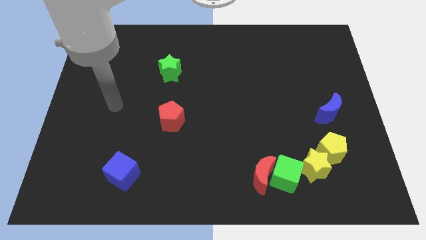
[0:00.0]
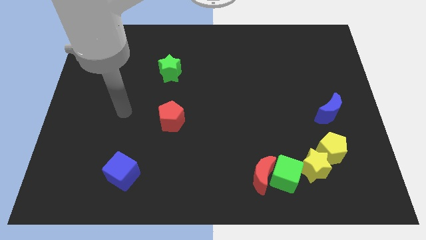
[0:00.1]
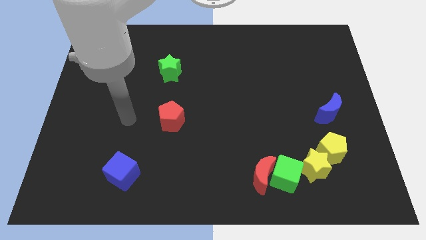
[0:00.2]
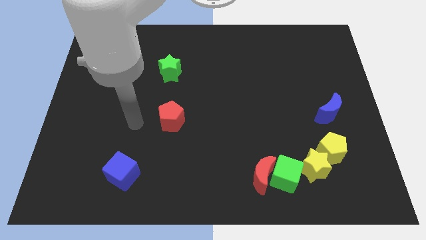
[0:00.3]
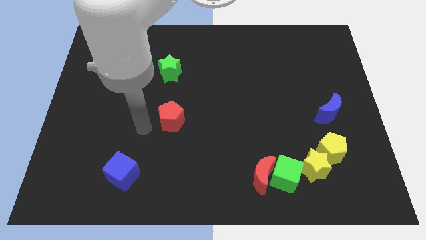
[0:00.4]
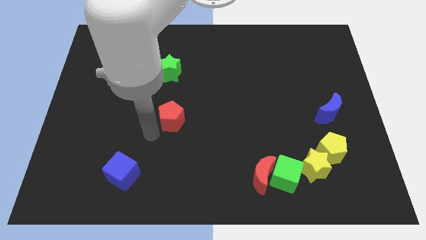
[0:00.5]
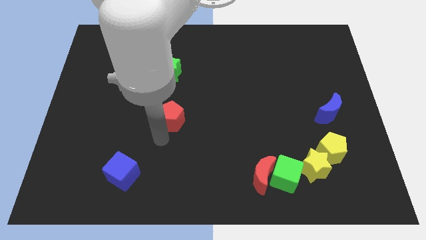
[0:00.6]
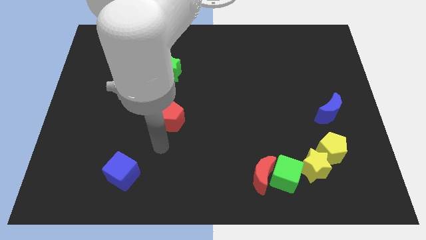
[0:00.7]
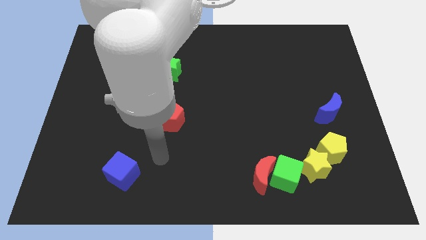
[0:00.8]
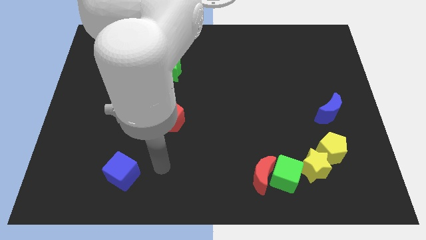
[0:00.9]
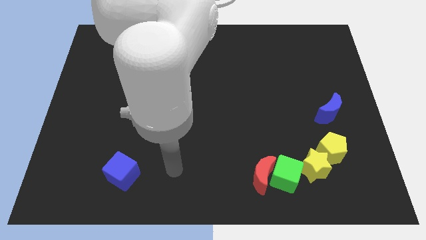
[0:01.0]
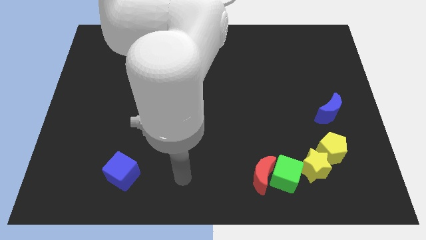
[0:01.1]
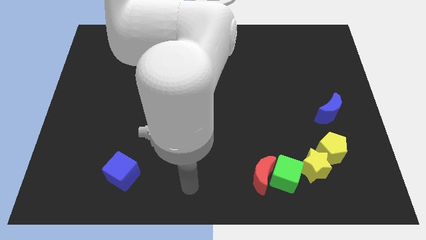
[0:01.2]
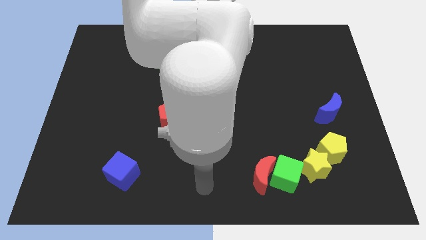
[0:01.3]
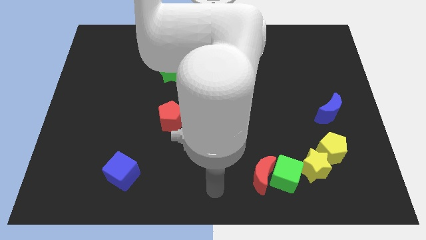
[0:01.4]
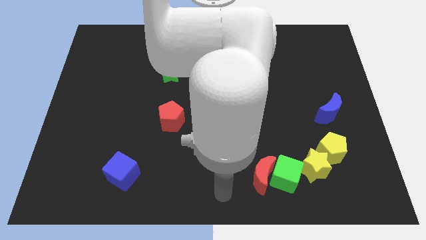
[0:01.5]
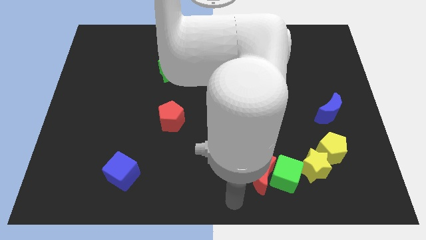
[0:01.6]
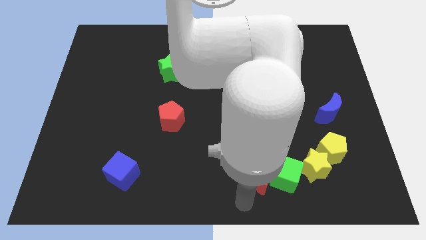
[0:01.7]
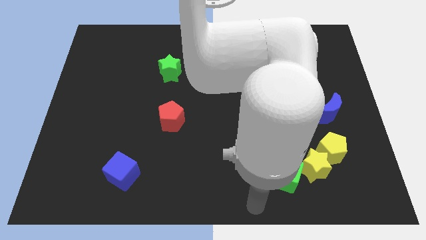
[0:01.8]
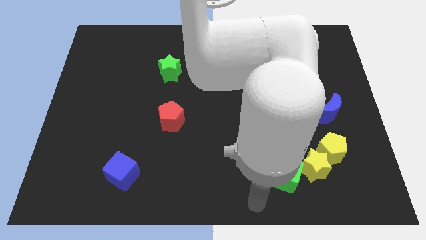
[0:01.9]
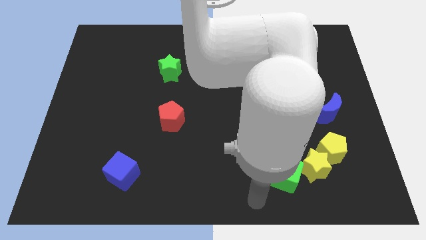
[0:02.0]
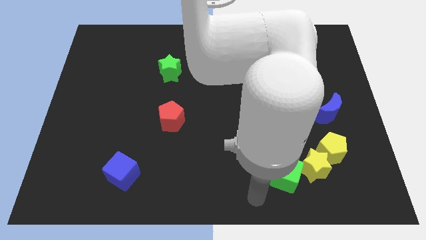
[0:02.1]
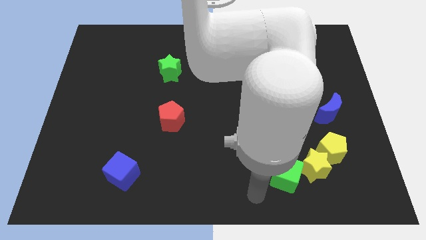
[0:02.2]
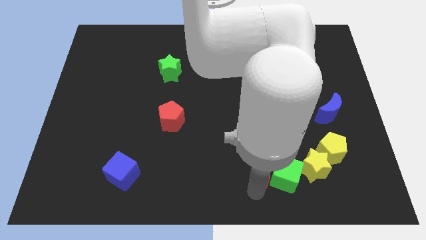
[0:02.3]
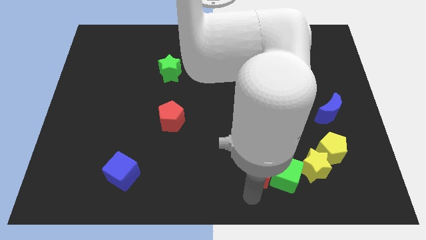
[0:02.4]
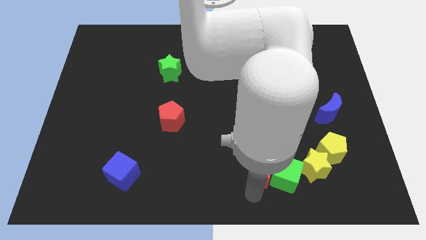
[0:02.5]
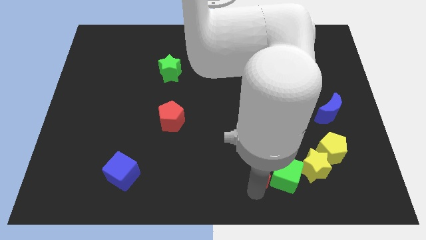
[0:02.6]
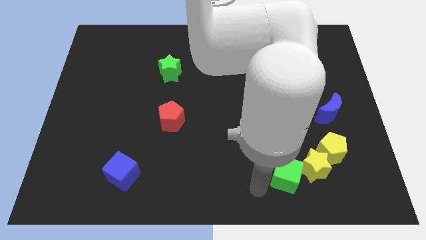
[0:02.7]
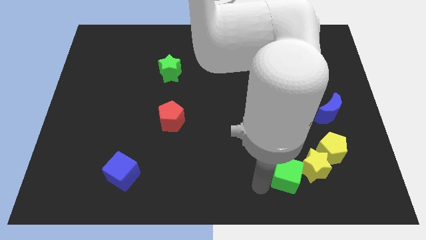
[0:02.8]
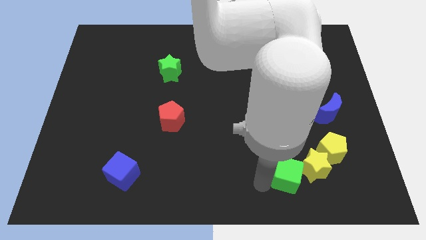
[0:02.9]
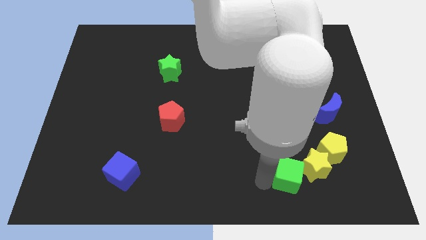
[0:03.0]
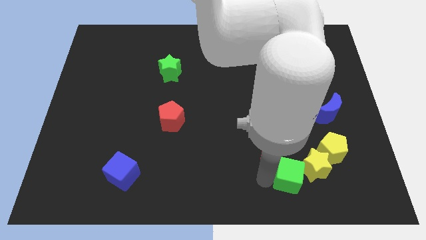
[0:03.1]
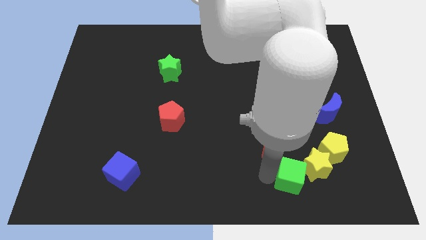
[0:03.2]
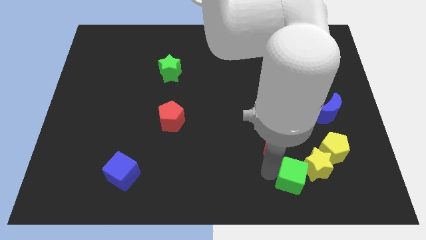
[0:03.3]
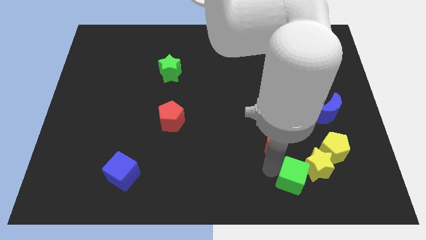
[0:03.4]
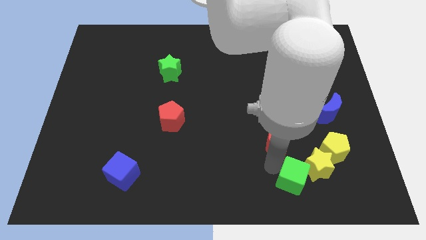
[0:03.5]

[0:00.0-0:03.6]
push the red moon a bit upwards and then to the right

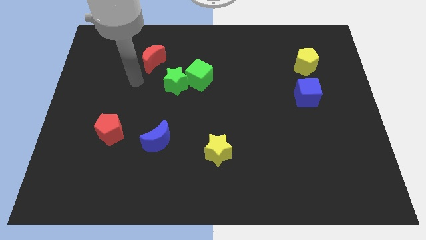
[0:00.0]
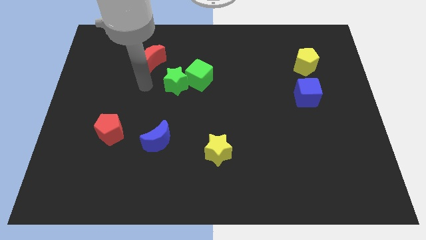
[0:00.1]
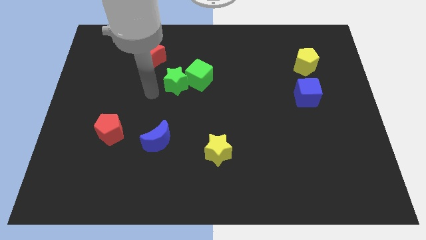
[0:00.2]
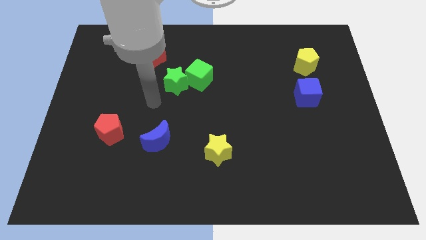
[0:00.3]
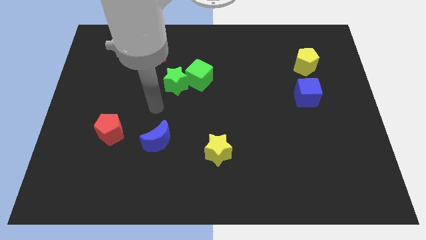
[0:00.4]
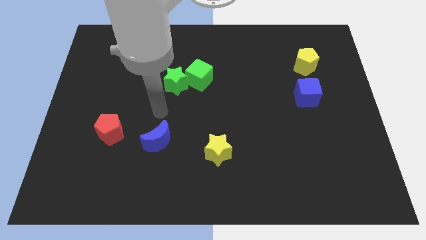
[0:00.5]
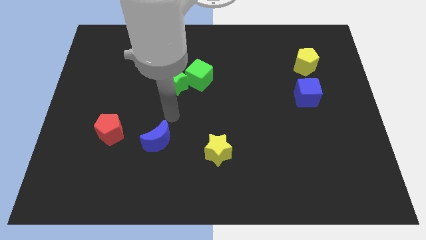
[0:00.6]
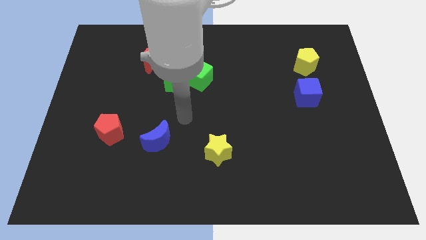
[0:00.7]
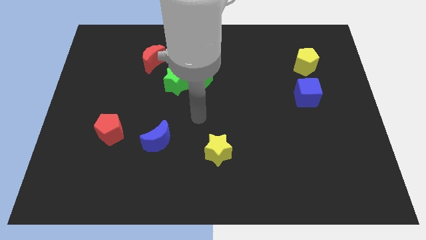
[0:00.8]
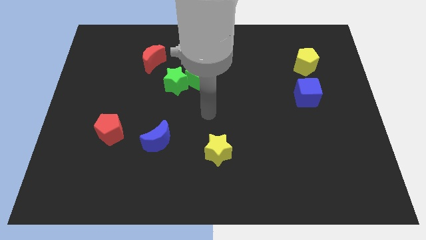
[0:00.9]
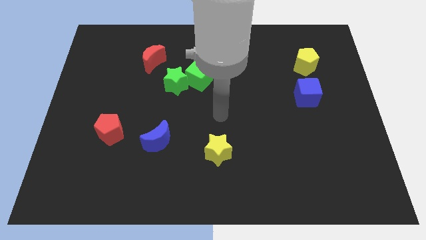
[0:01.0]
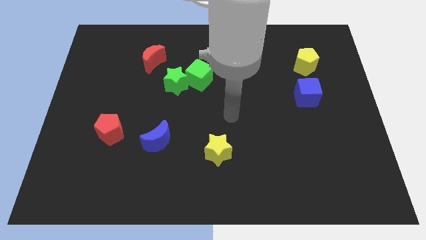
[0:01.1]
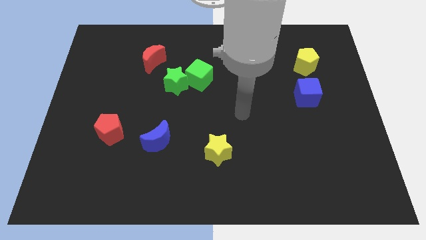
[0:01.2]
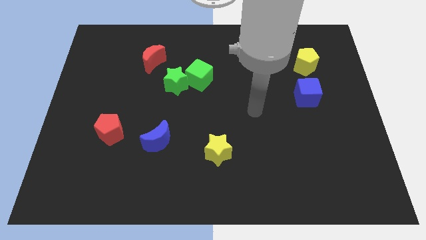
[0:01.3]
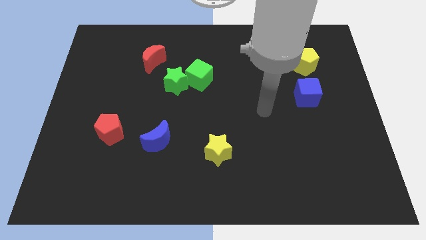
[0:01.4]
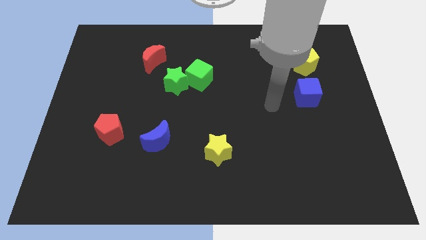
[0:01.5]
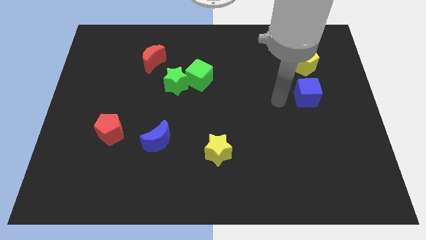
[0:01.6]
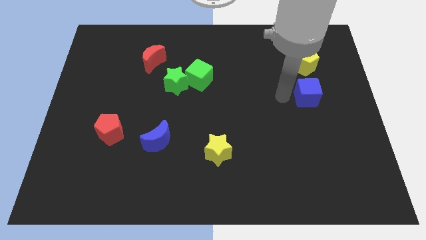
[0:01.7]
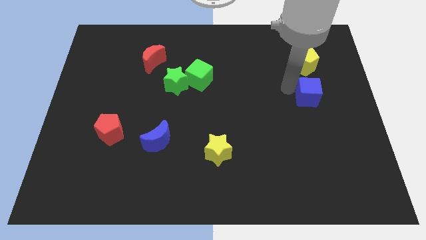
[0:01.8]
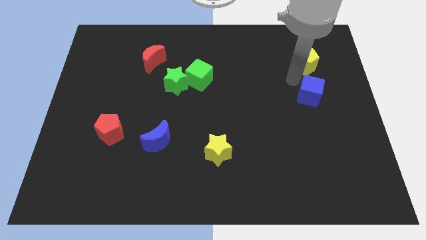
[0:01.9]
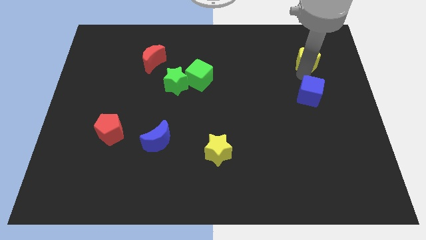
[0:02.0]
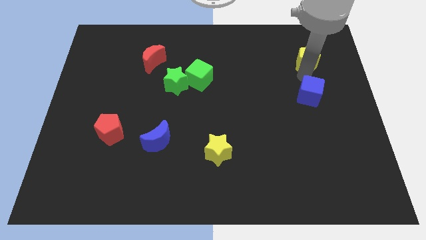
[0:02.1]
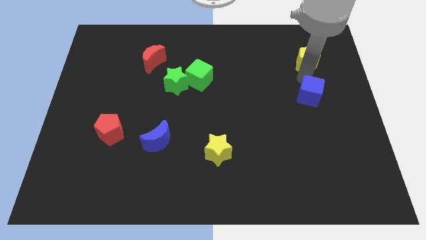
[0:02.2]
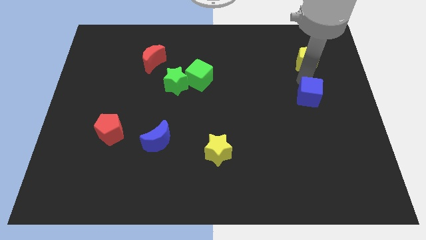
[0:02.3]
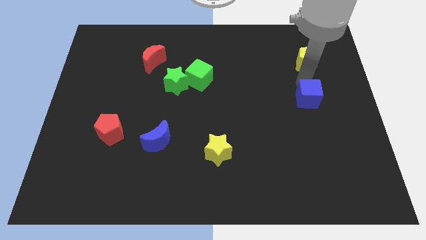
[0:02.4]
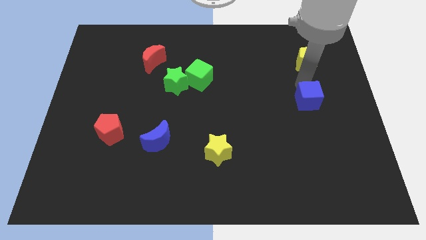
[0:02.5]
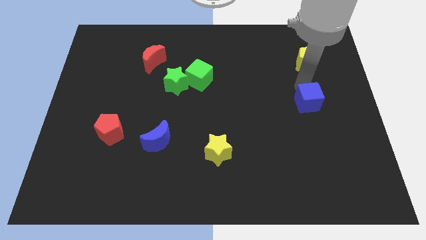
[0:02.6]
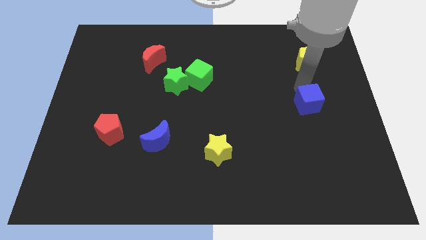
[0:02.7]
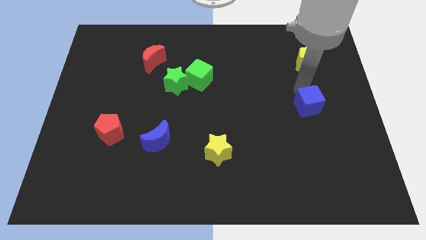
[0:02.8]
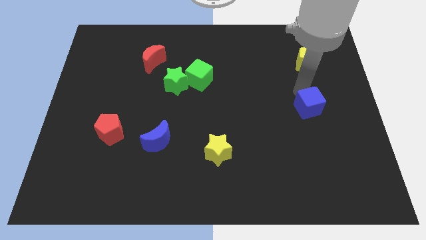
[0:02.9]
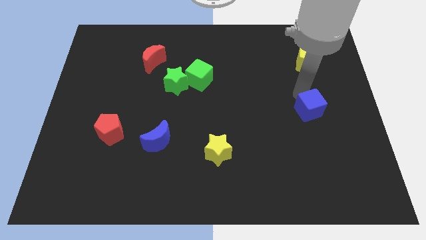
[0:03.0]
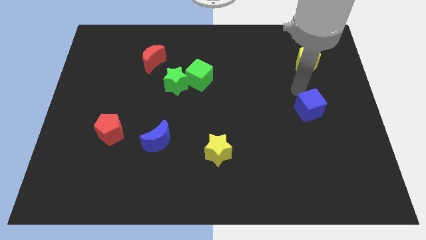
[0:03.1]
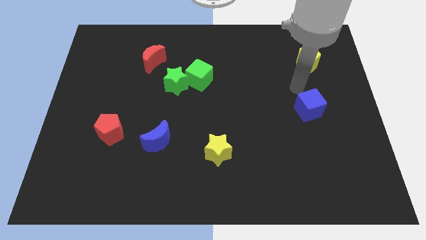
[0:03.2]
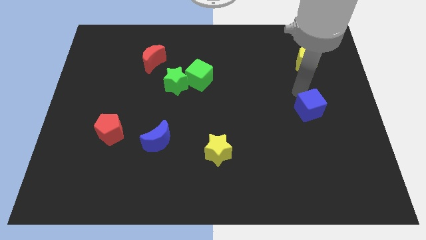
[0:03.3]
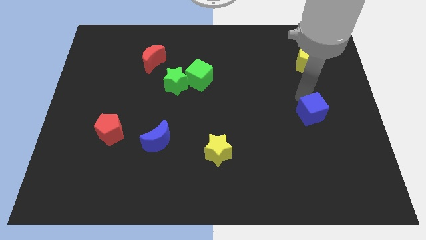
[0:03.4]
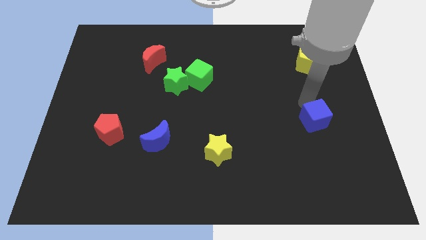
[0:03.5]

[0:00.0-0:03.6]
slide the blue cube down slightly

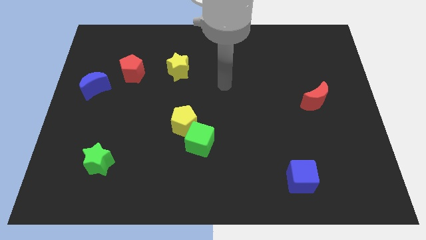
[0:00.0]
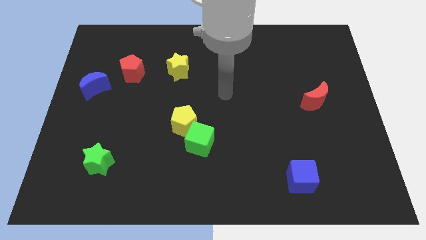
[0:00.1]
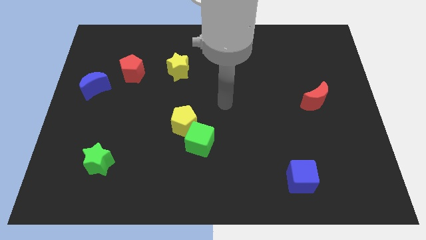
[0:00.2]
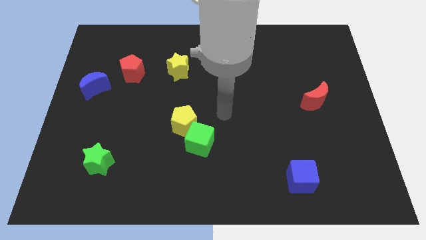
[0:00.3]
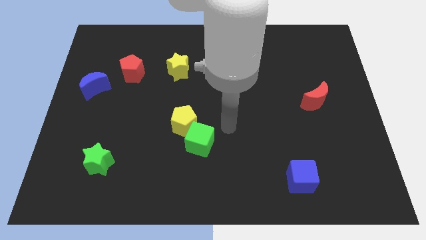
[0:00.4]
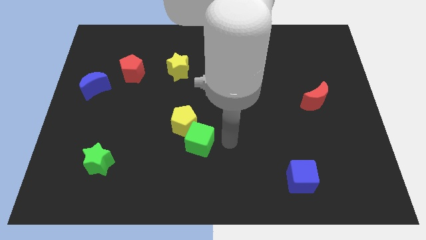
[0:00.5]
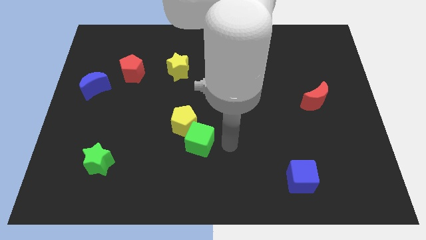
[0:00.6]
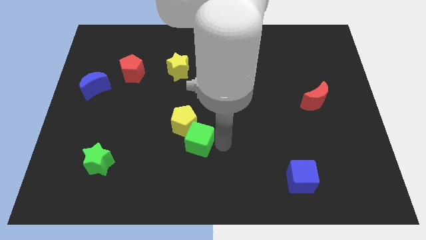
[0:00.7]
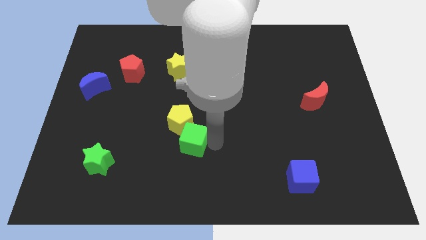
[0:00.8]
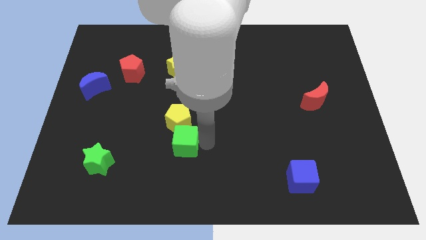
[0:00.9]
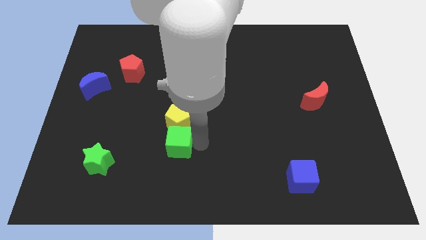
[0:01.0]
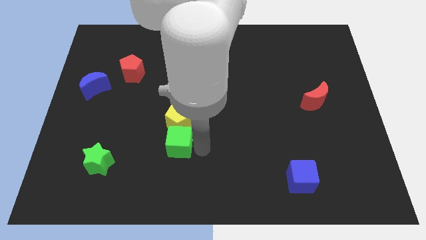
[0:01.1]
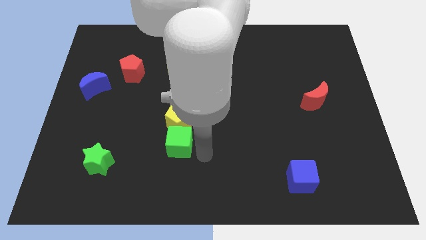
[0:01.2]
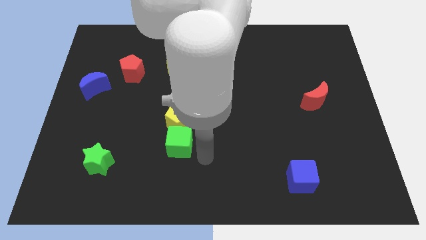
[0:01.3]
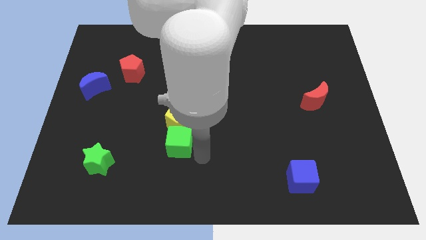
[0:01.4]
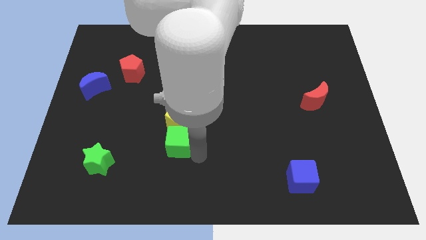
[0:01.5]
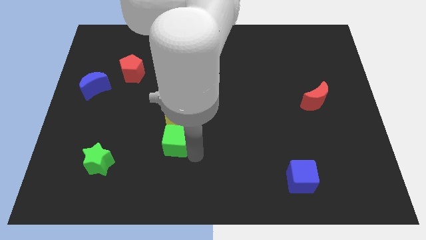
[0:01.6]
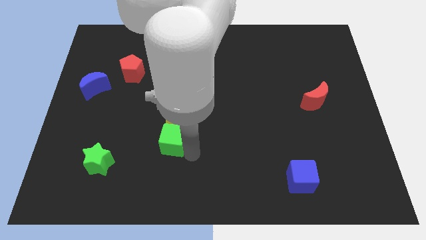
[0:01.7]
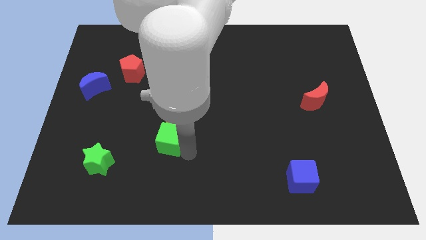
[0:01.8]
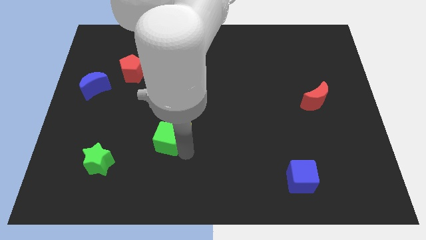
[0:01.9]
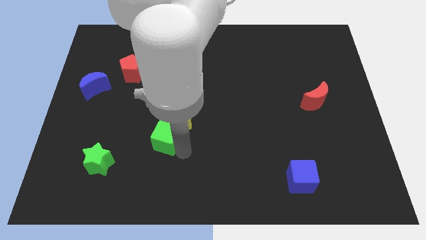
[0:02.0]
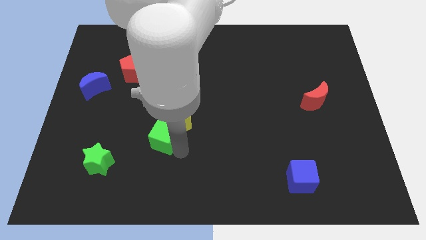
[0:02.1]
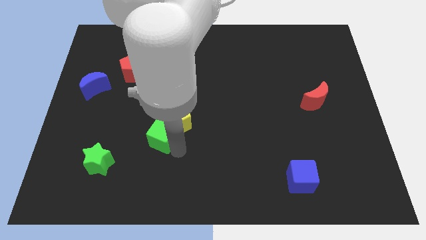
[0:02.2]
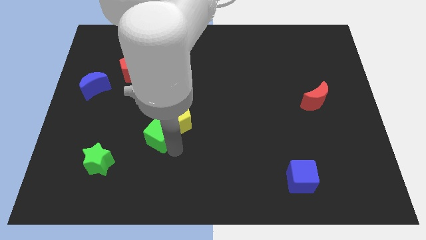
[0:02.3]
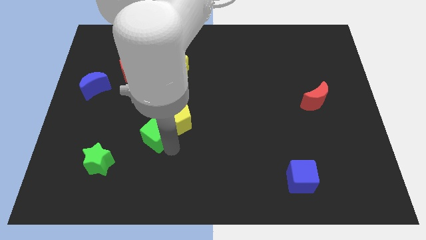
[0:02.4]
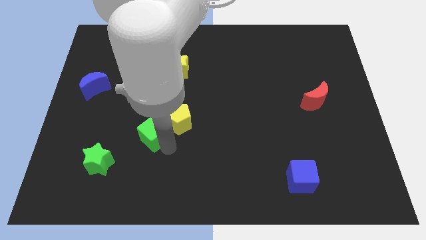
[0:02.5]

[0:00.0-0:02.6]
move the green cube slightly upwards and then left
